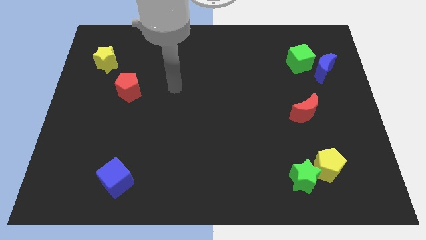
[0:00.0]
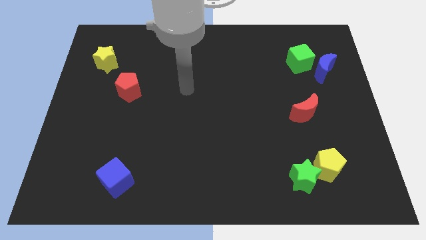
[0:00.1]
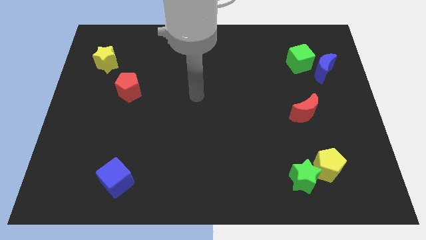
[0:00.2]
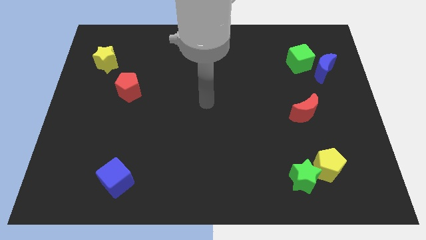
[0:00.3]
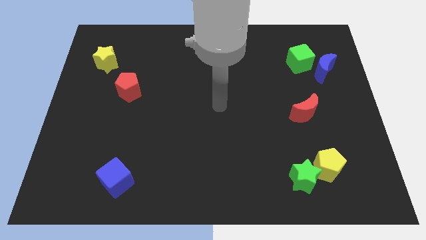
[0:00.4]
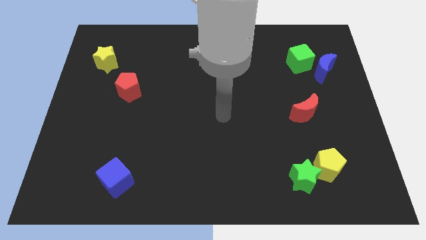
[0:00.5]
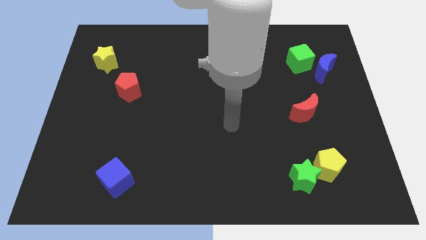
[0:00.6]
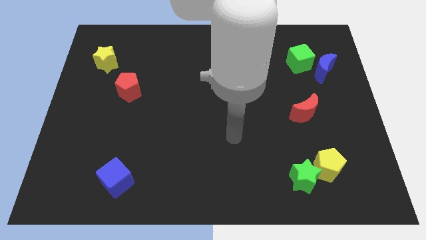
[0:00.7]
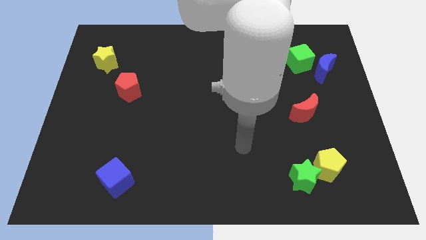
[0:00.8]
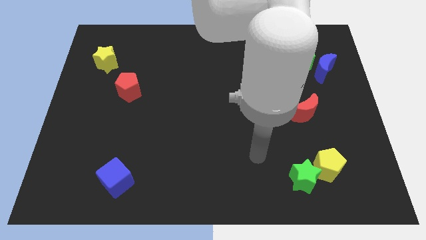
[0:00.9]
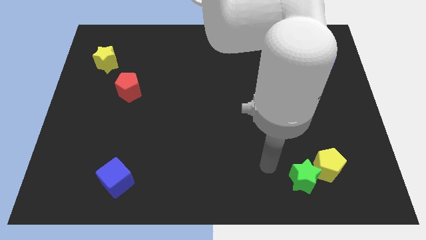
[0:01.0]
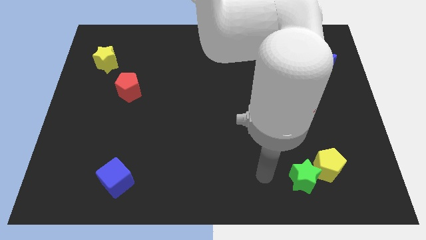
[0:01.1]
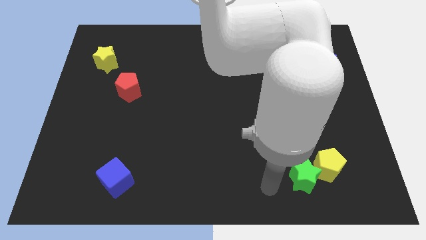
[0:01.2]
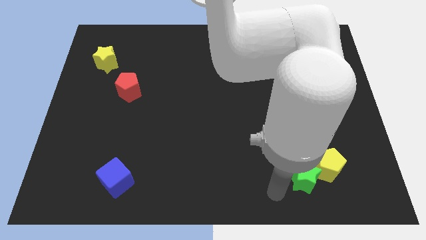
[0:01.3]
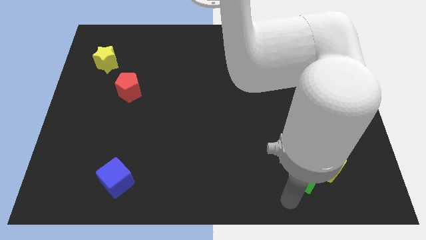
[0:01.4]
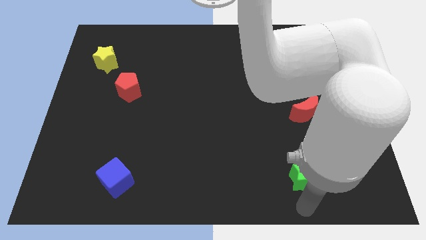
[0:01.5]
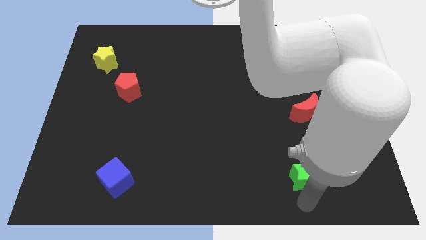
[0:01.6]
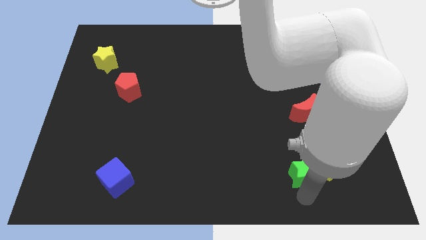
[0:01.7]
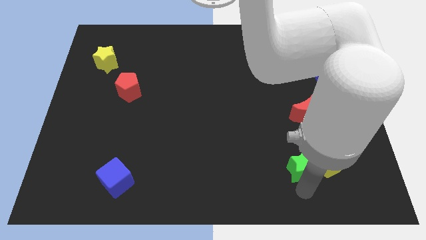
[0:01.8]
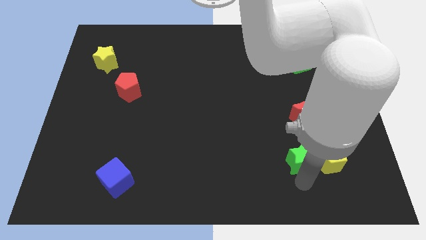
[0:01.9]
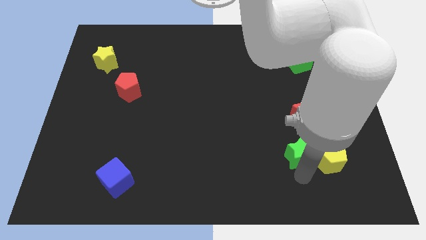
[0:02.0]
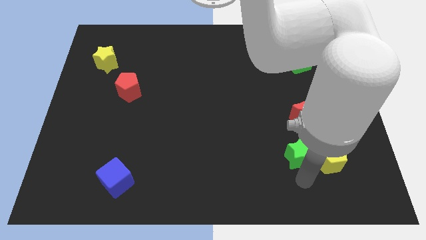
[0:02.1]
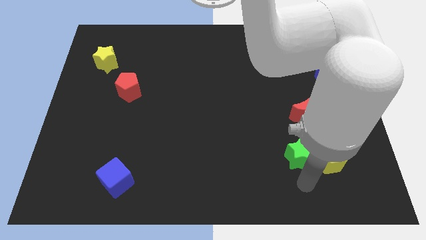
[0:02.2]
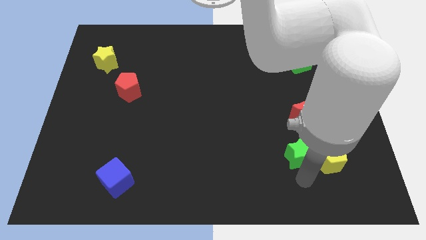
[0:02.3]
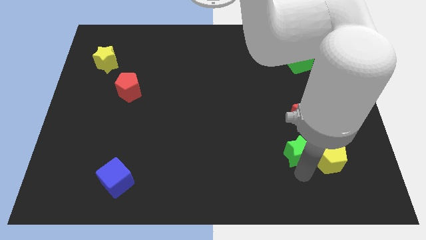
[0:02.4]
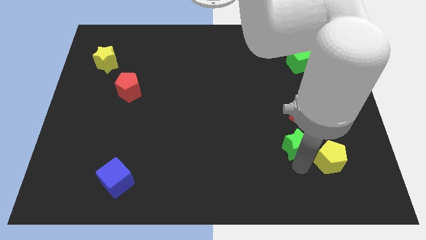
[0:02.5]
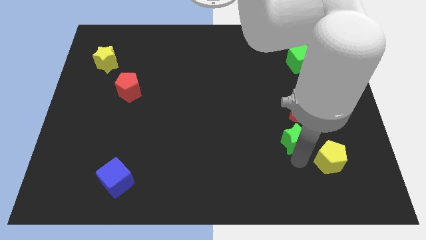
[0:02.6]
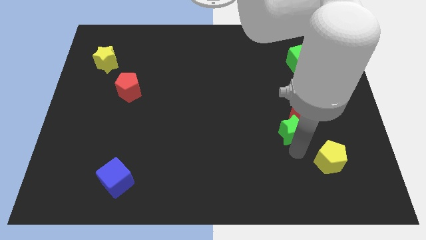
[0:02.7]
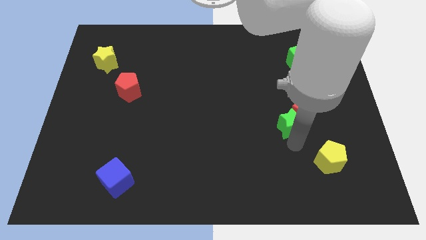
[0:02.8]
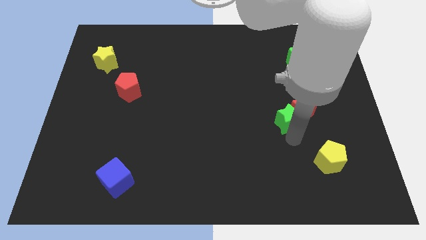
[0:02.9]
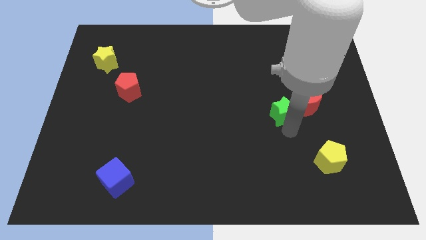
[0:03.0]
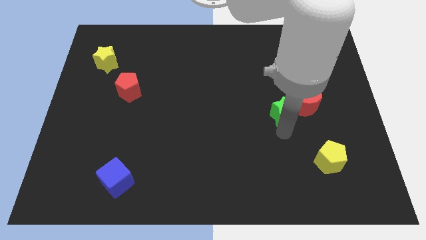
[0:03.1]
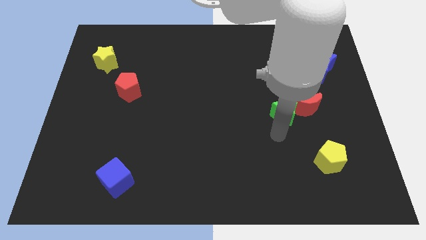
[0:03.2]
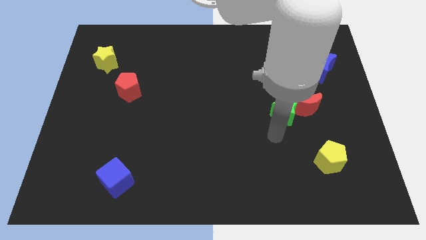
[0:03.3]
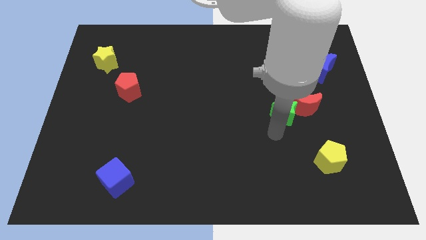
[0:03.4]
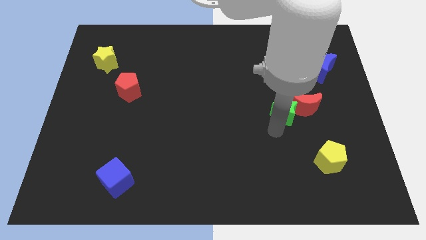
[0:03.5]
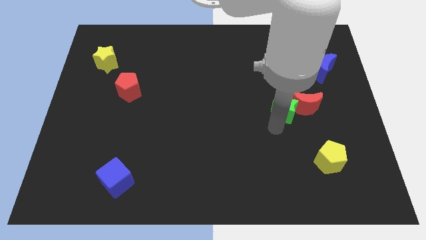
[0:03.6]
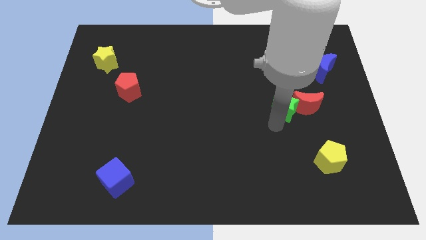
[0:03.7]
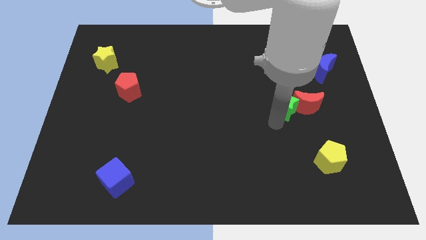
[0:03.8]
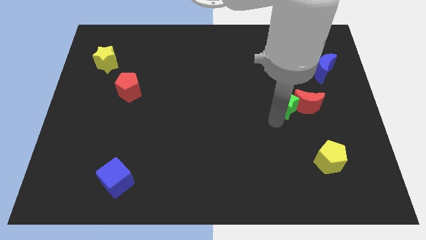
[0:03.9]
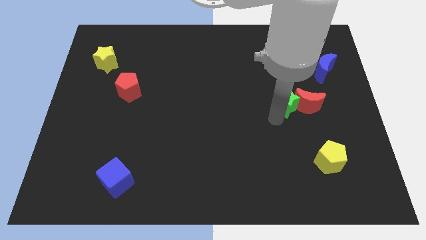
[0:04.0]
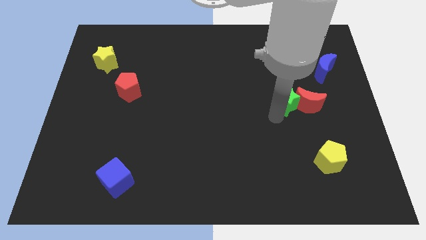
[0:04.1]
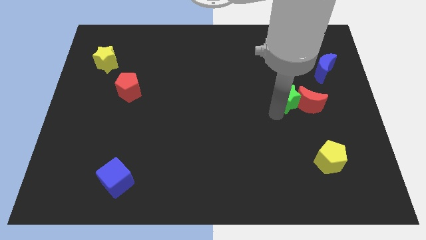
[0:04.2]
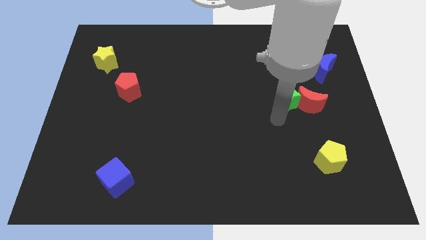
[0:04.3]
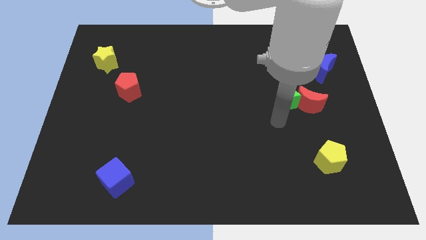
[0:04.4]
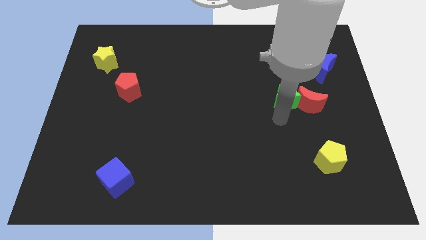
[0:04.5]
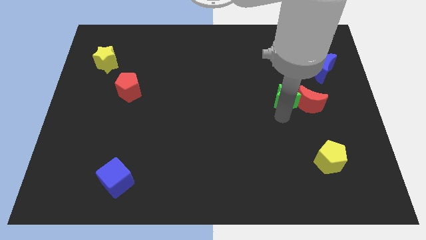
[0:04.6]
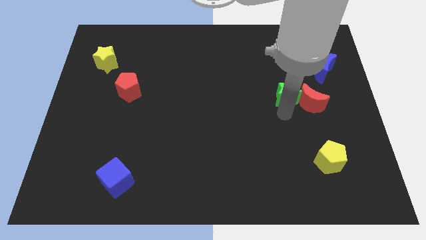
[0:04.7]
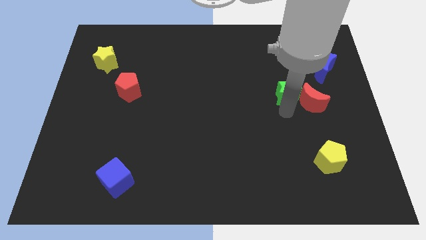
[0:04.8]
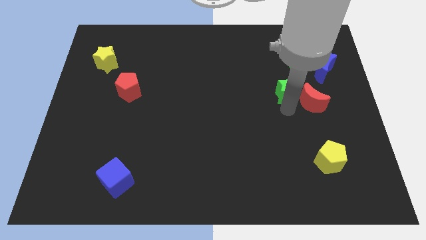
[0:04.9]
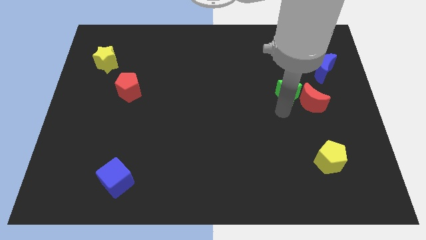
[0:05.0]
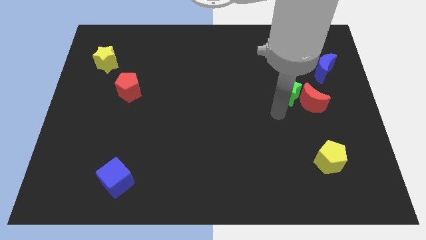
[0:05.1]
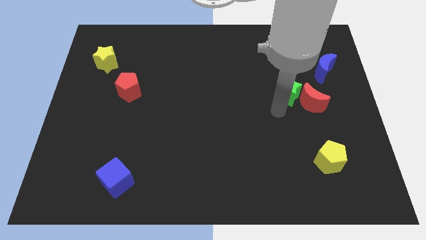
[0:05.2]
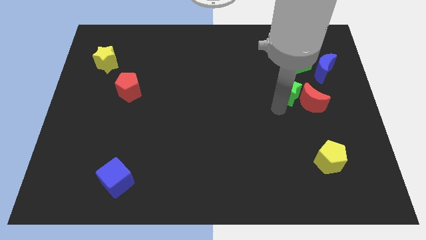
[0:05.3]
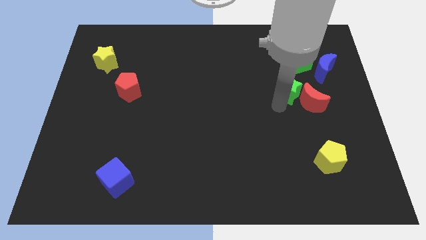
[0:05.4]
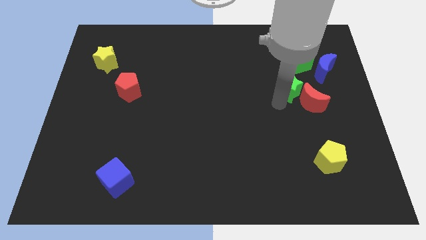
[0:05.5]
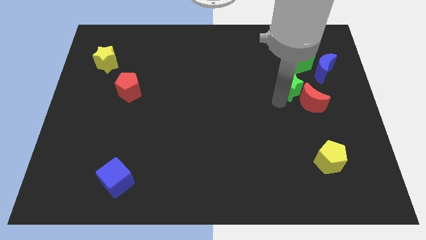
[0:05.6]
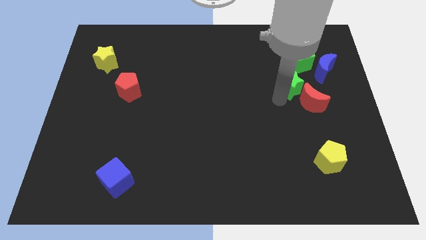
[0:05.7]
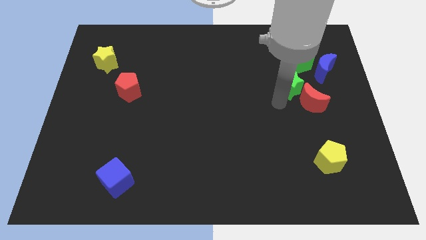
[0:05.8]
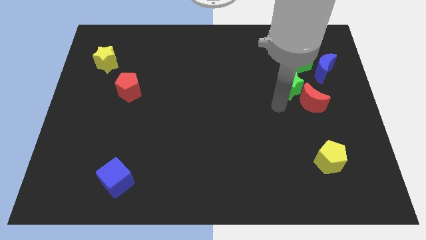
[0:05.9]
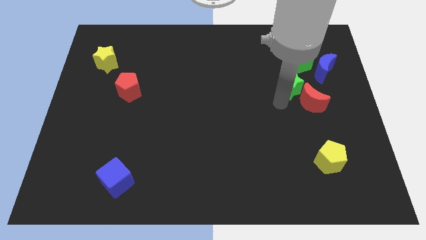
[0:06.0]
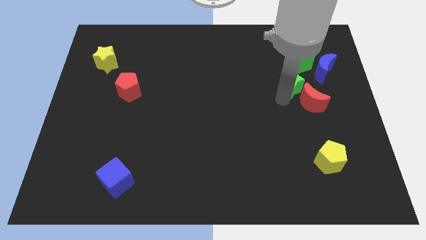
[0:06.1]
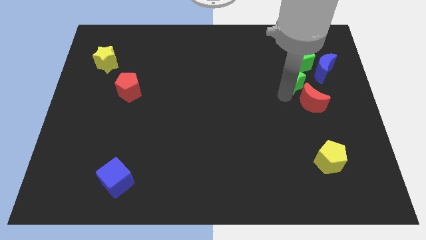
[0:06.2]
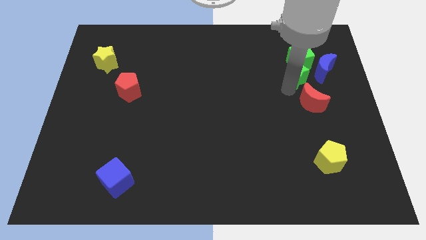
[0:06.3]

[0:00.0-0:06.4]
slide the green star to the green cube

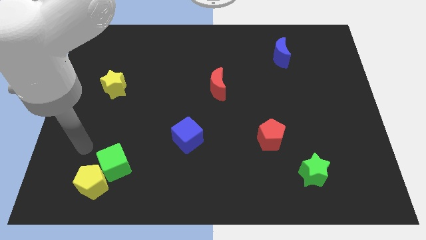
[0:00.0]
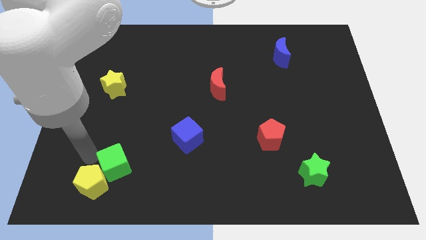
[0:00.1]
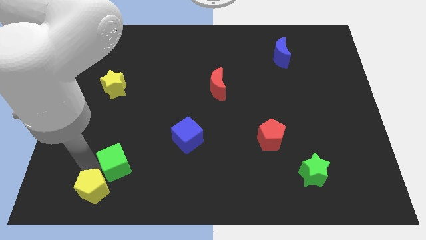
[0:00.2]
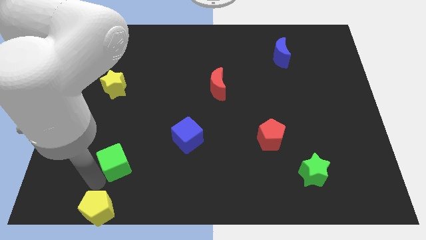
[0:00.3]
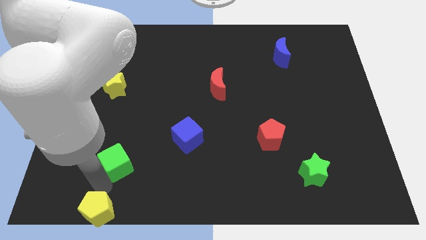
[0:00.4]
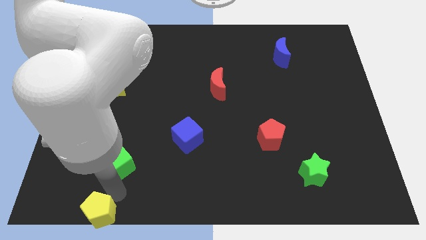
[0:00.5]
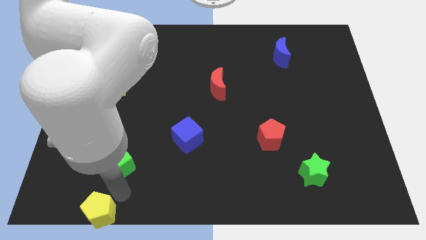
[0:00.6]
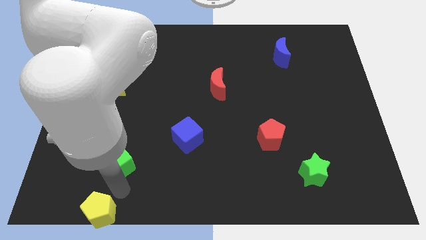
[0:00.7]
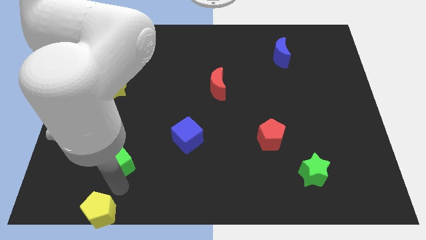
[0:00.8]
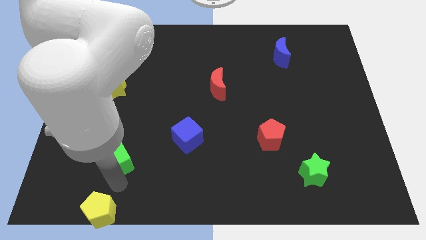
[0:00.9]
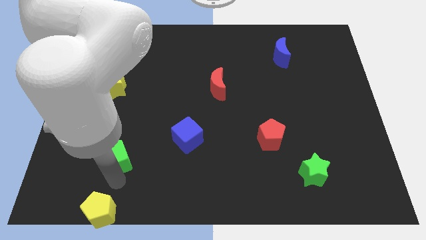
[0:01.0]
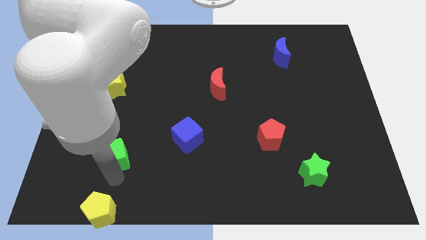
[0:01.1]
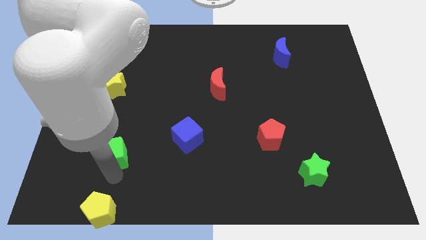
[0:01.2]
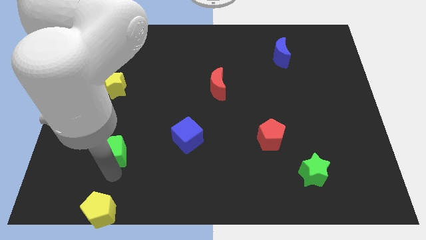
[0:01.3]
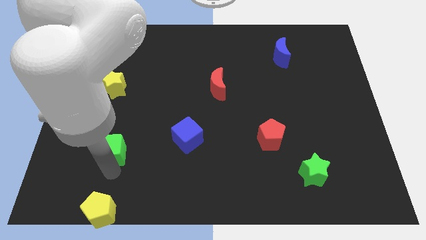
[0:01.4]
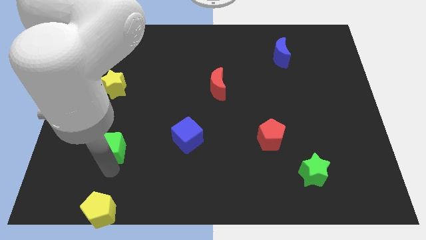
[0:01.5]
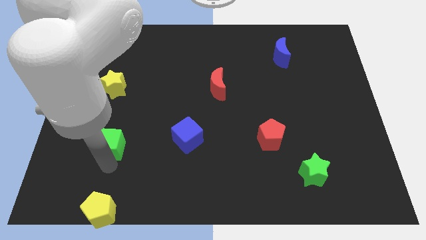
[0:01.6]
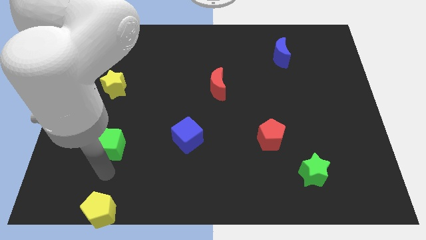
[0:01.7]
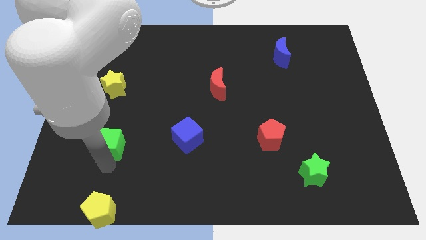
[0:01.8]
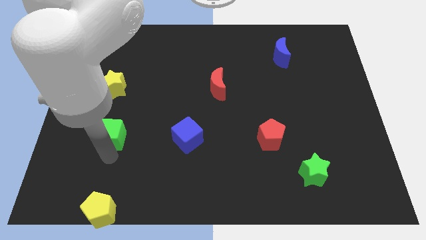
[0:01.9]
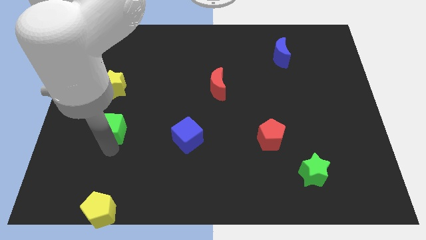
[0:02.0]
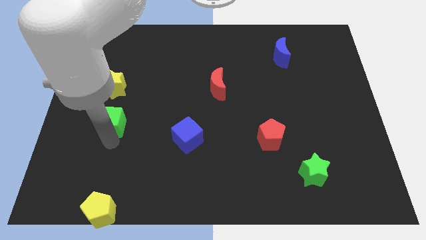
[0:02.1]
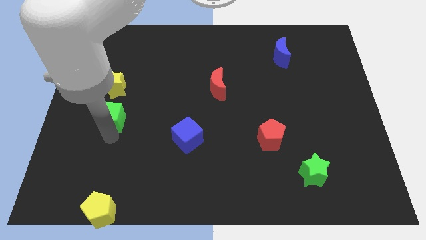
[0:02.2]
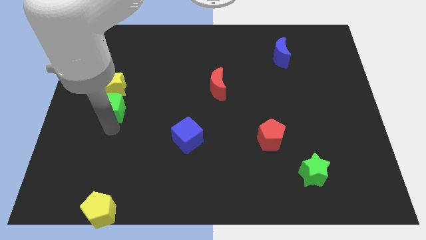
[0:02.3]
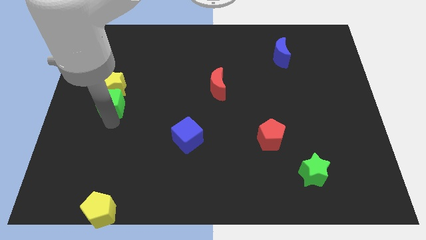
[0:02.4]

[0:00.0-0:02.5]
put the green cube to the yellow star
